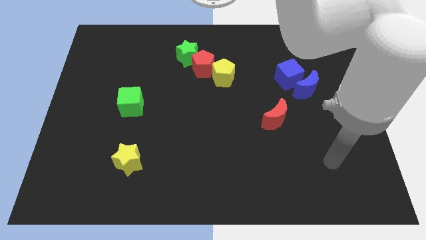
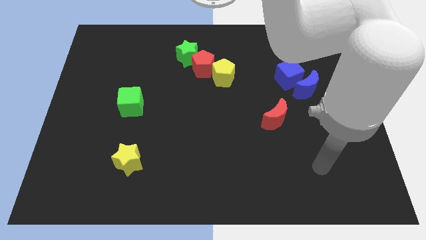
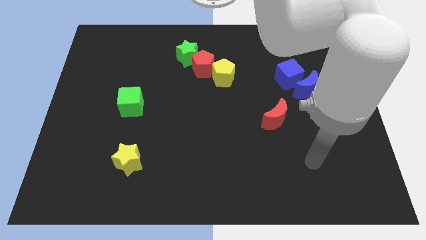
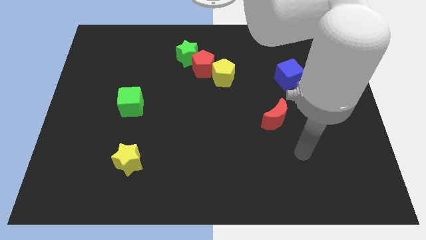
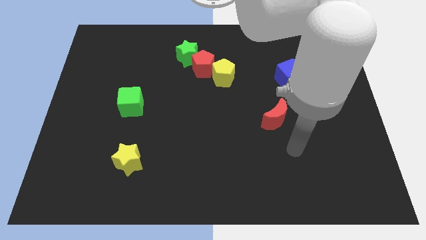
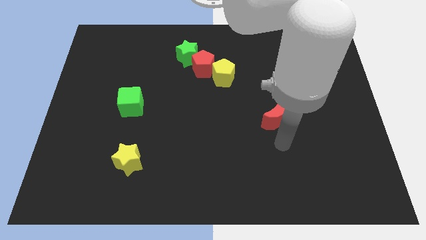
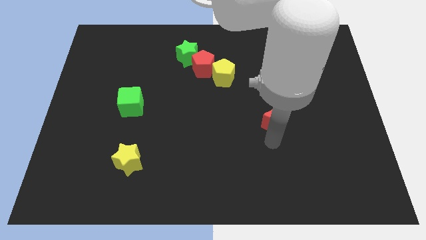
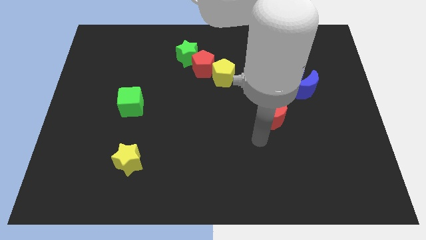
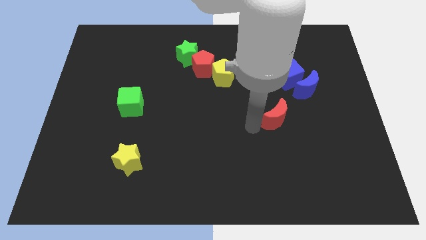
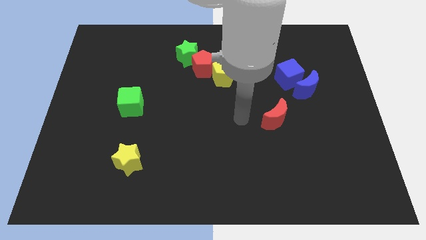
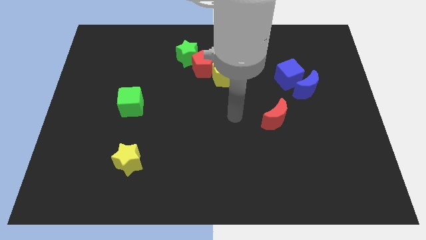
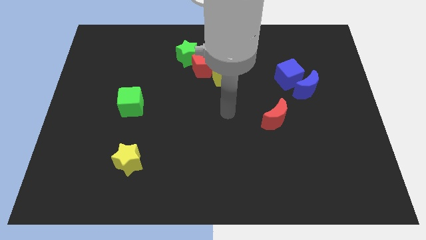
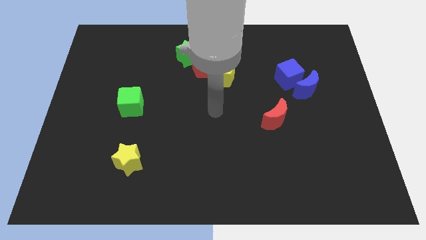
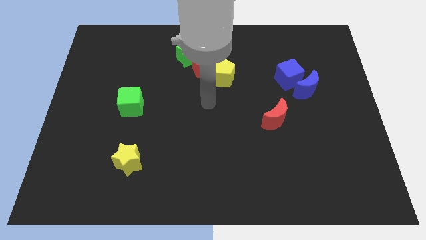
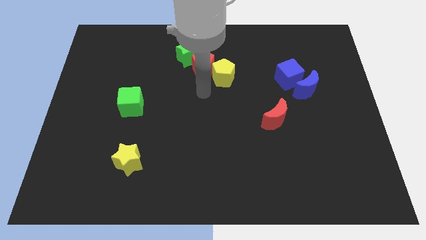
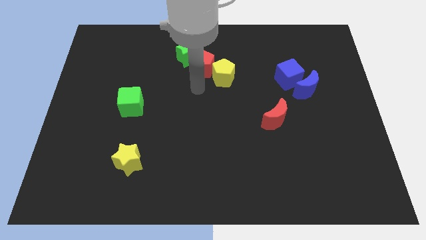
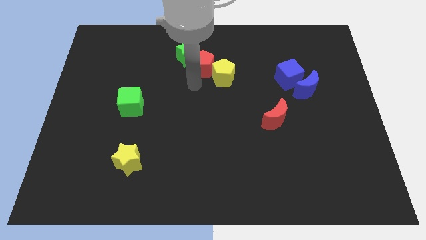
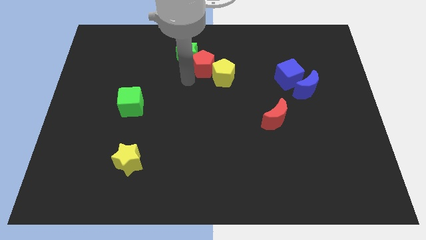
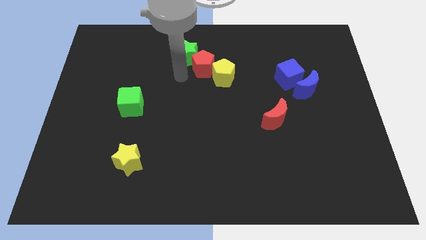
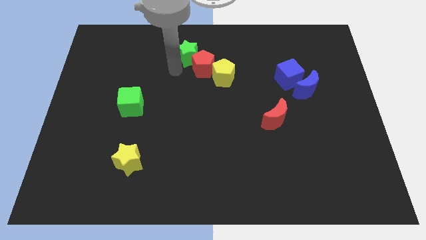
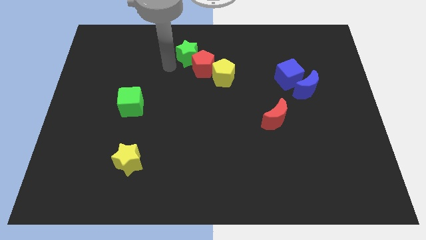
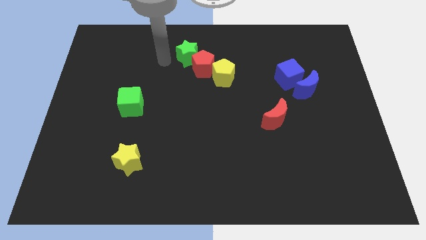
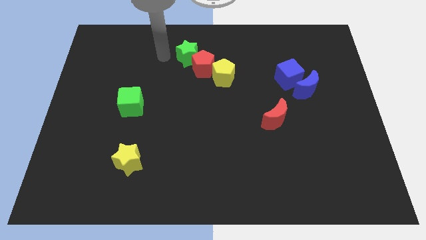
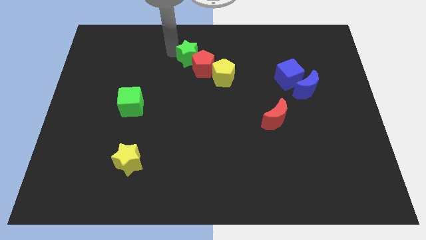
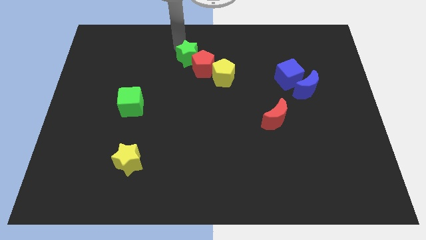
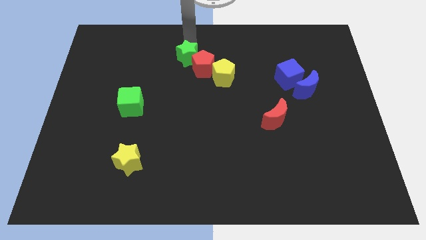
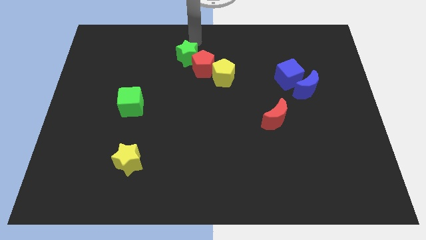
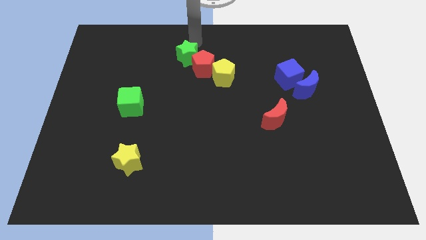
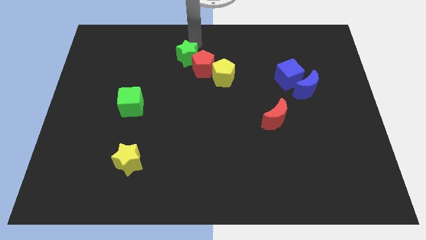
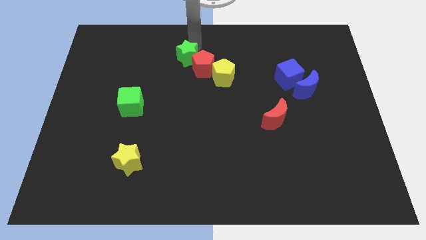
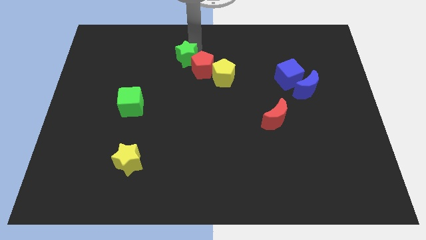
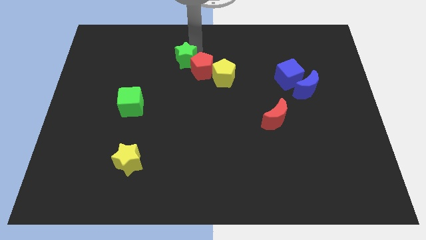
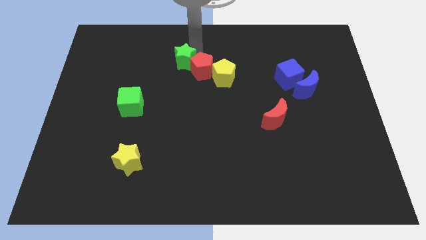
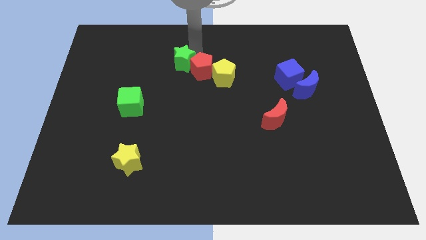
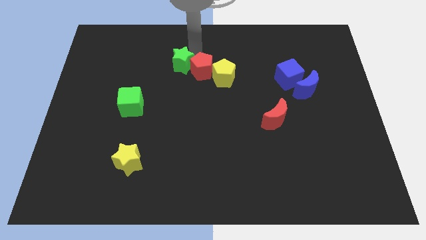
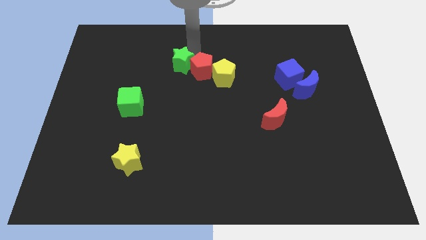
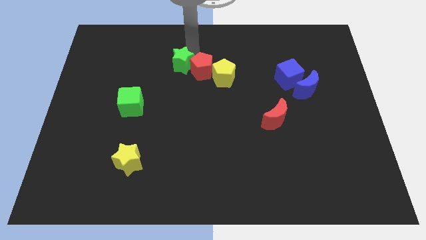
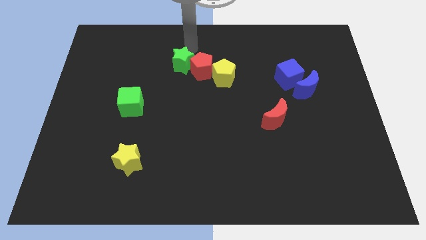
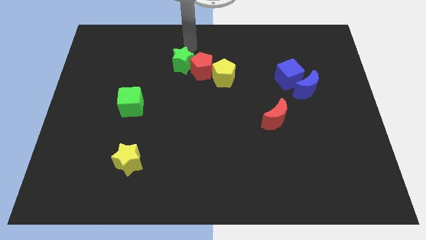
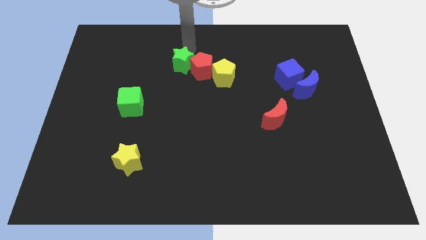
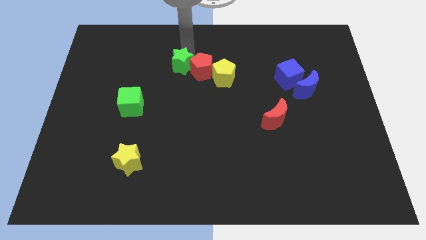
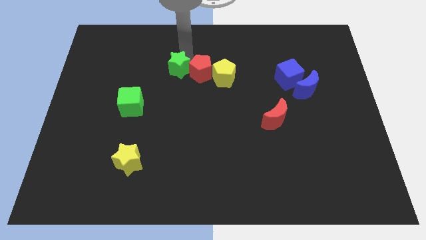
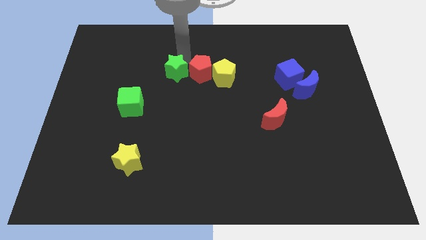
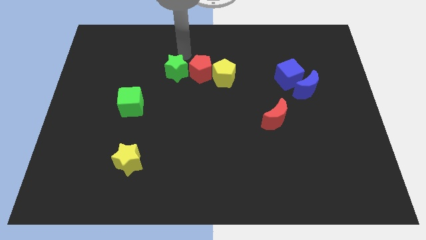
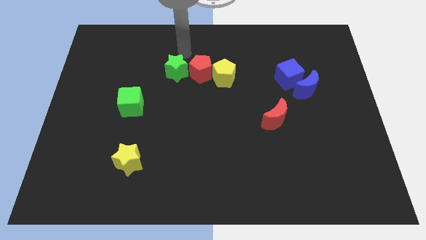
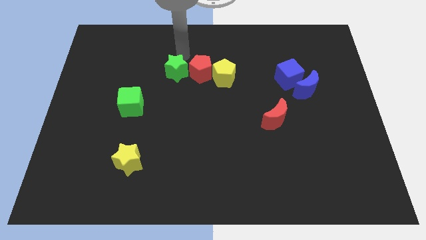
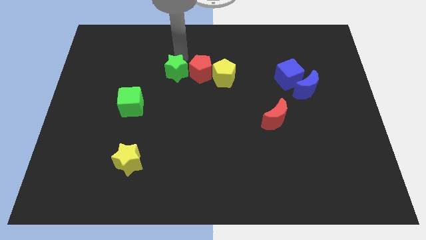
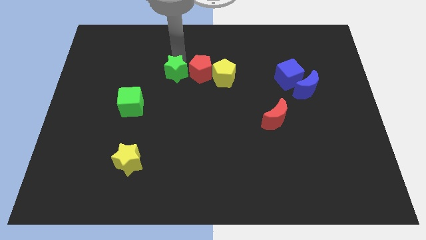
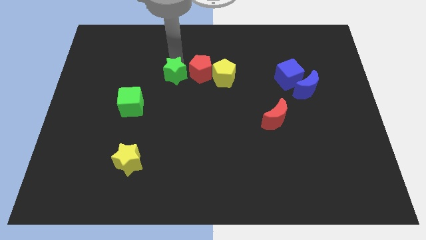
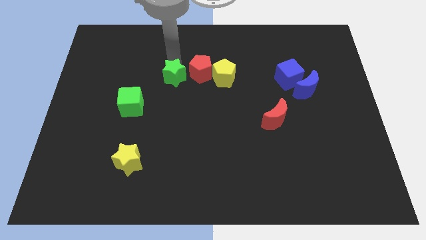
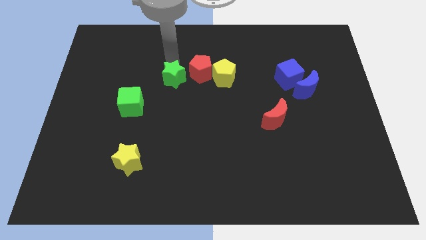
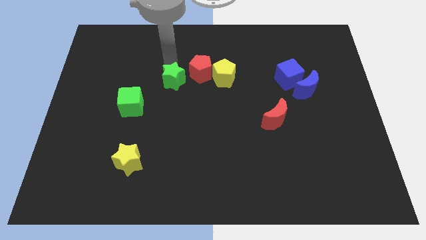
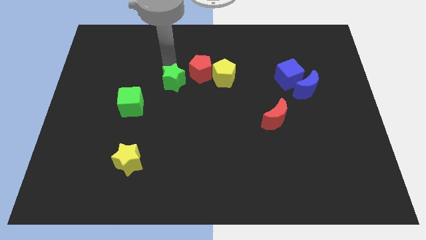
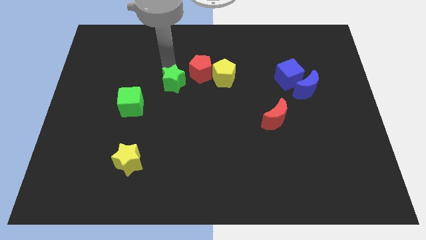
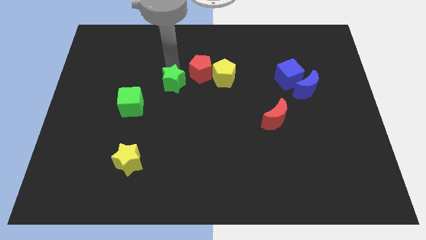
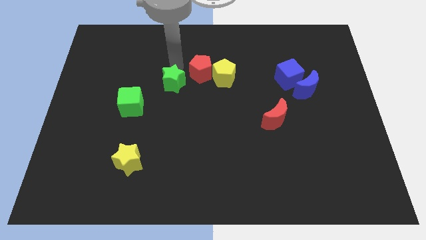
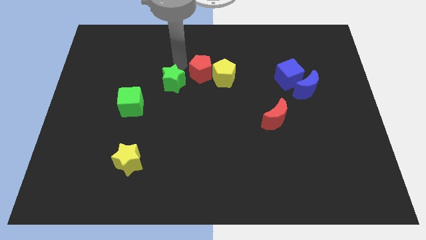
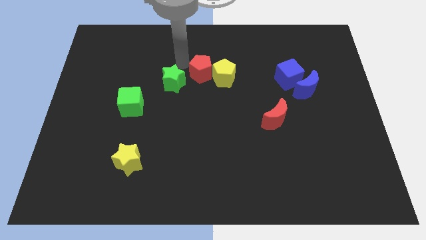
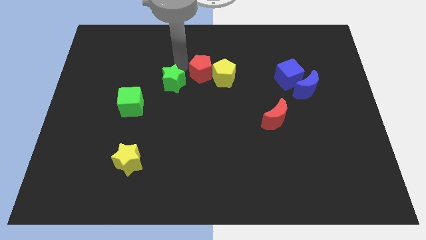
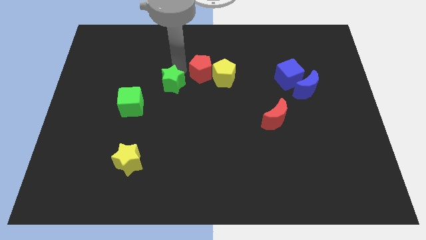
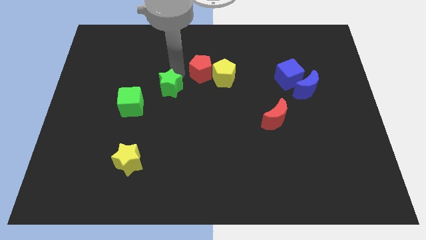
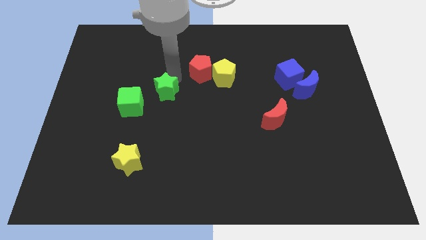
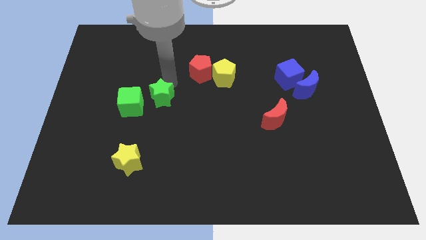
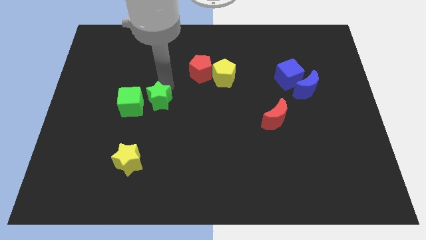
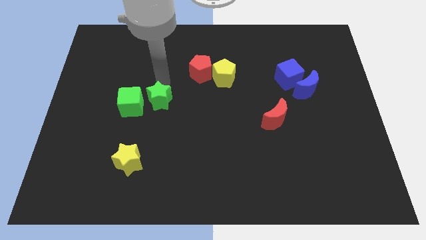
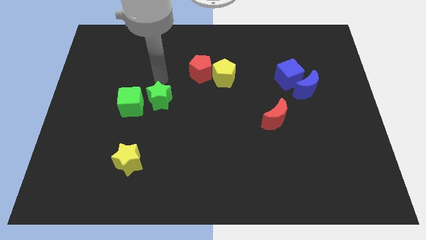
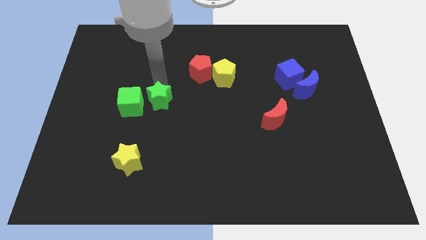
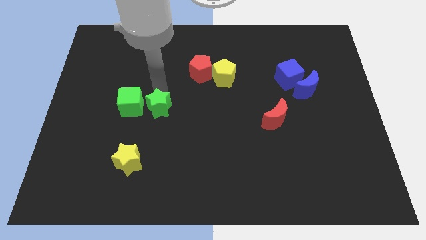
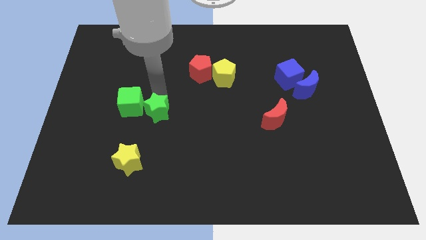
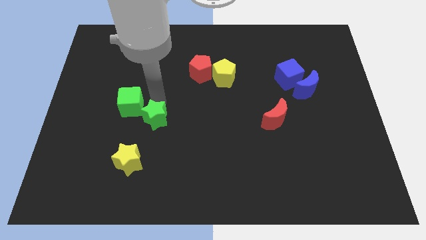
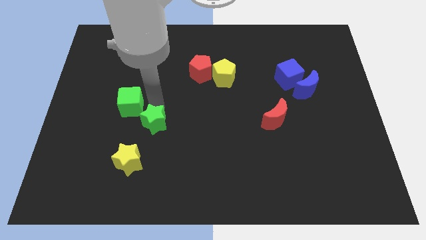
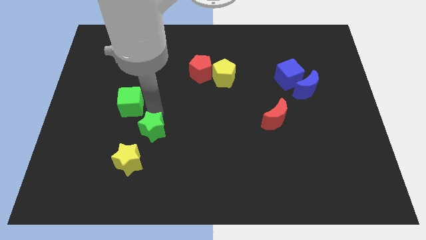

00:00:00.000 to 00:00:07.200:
put the green star to the top right of the yellow star
